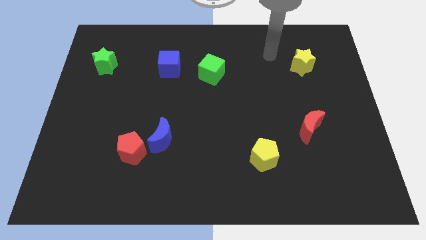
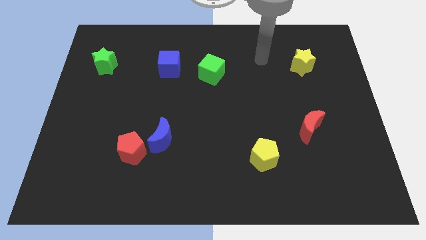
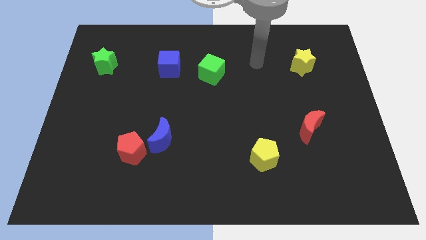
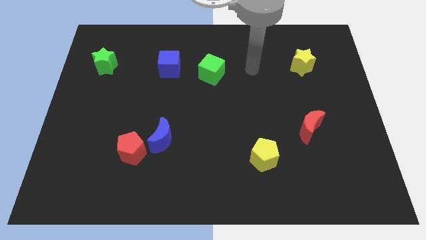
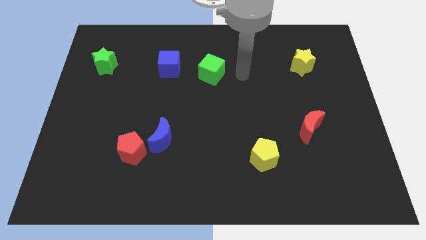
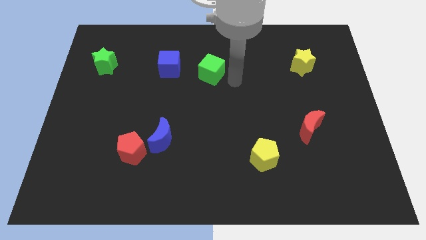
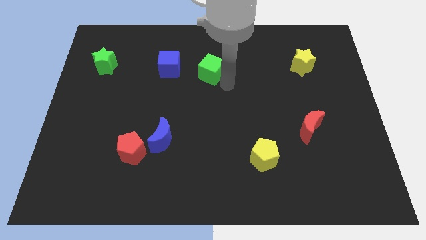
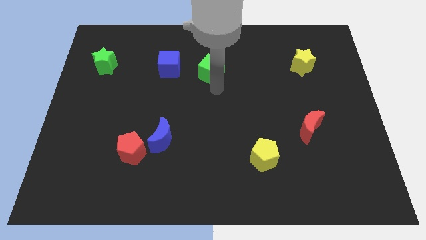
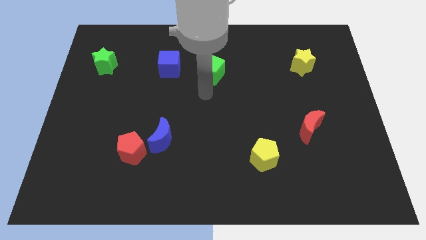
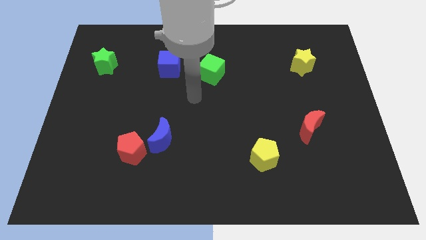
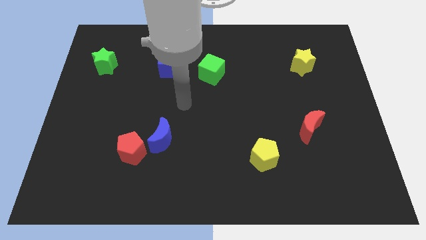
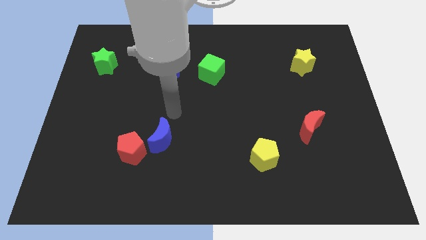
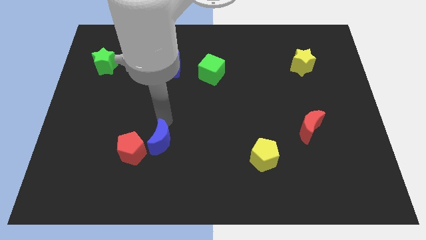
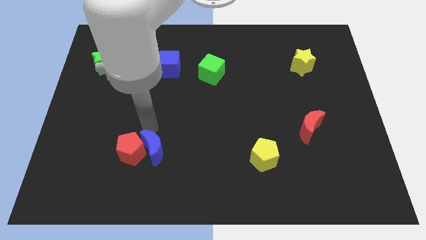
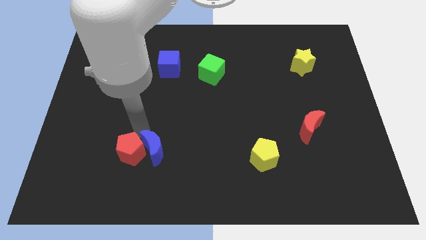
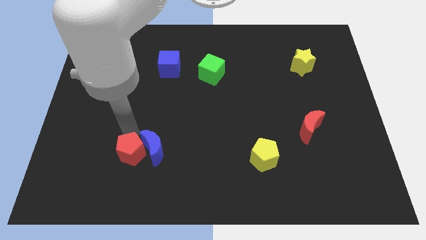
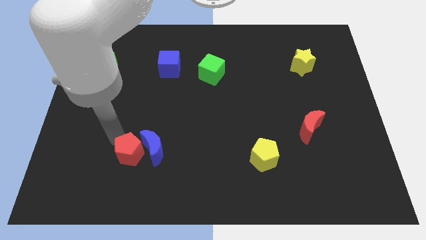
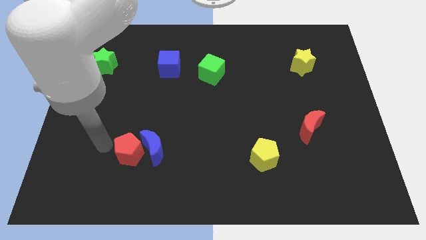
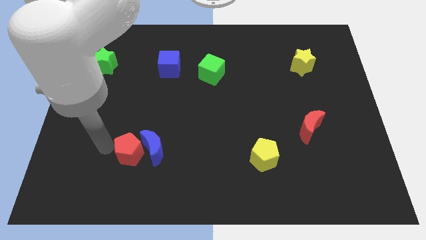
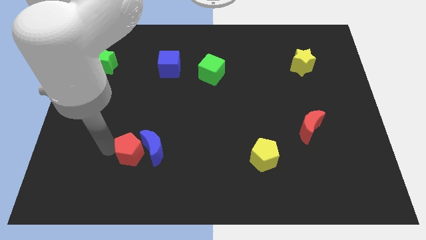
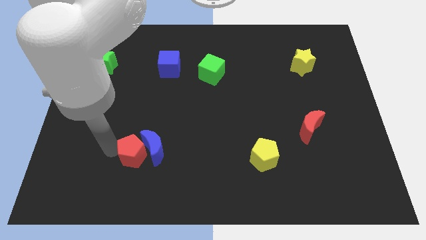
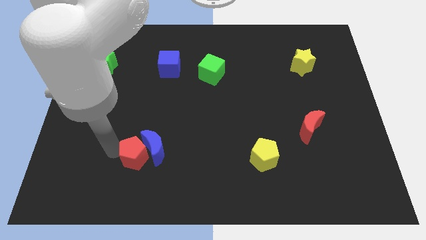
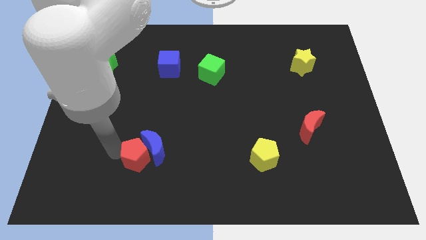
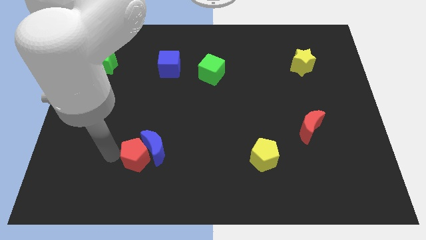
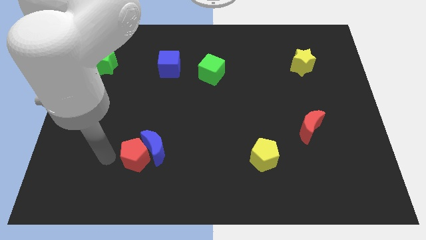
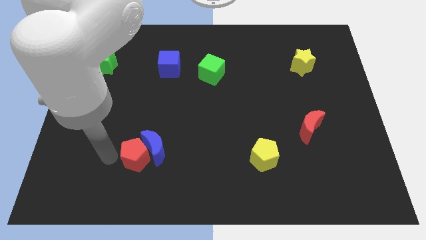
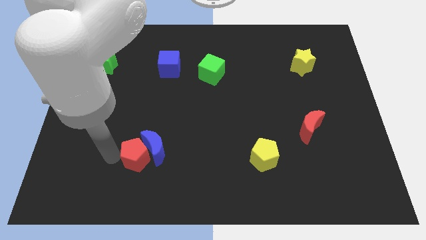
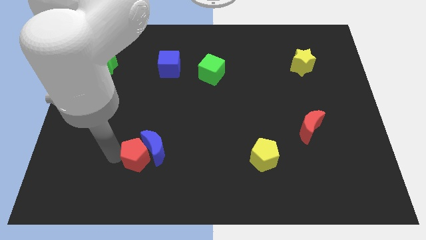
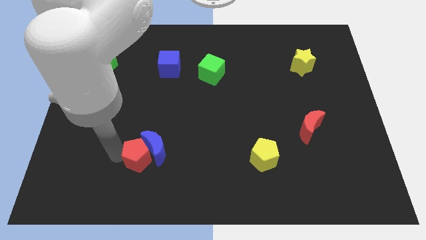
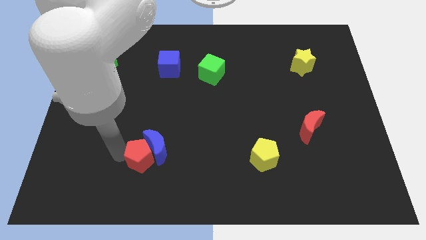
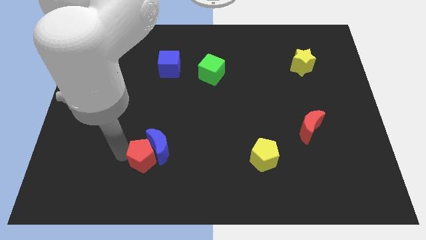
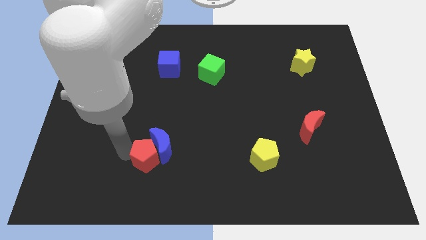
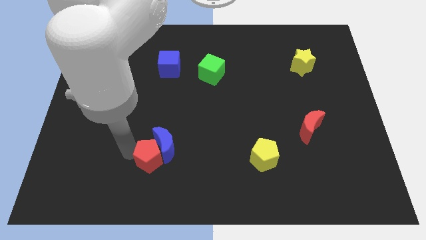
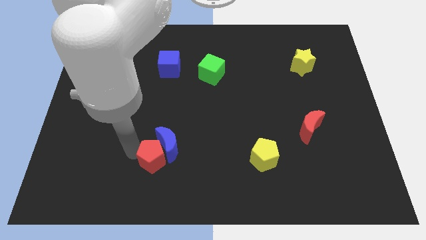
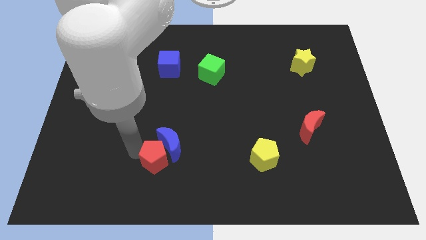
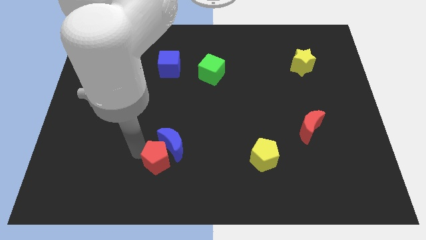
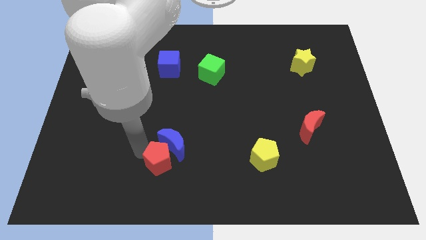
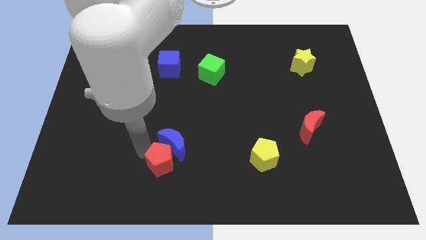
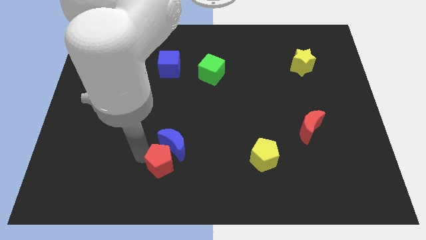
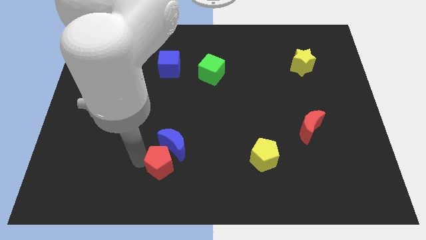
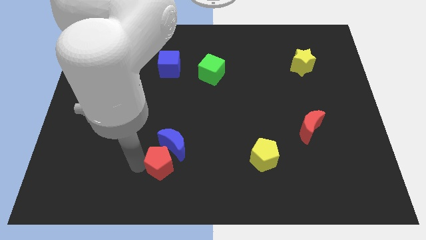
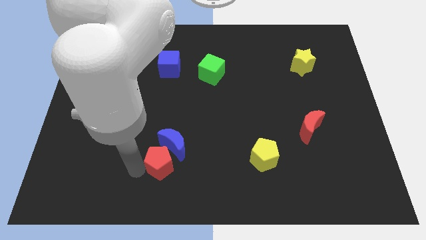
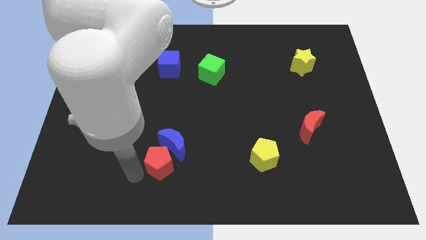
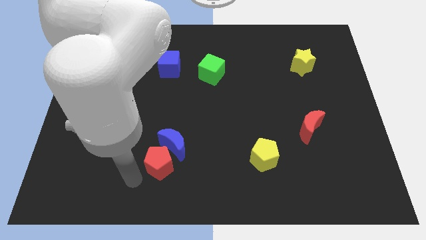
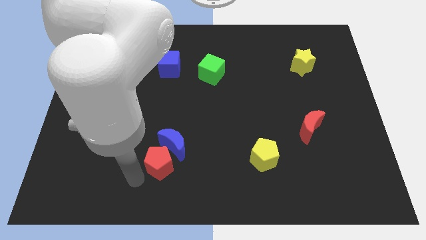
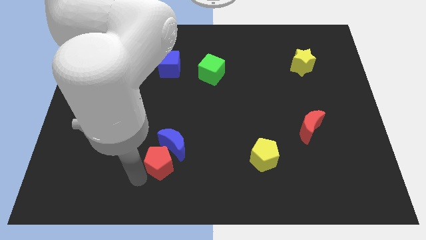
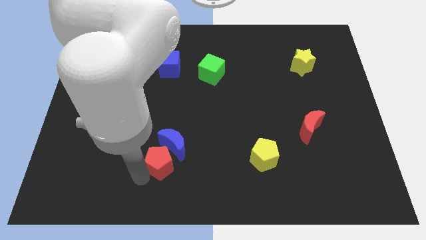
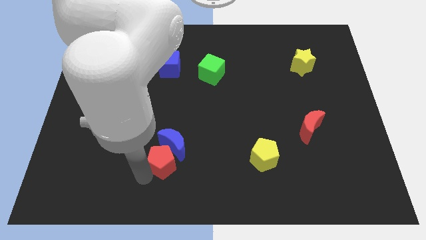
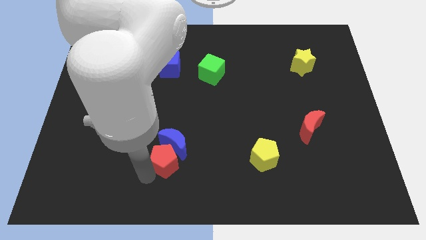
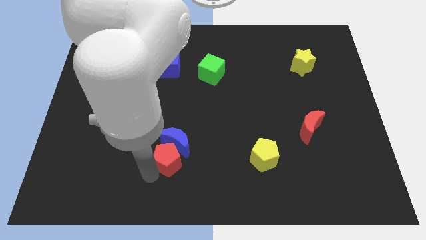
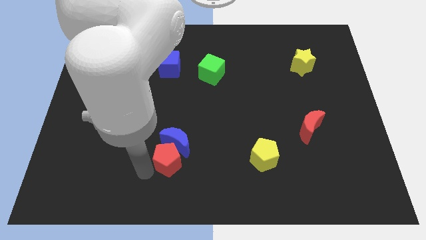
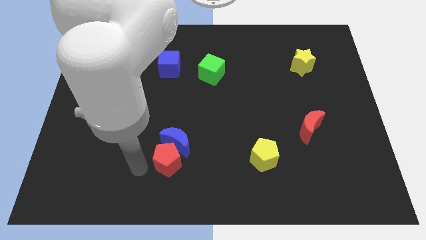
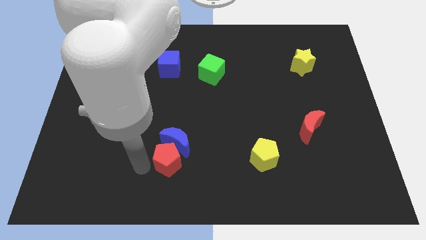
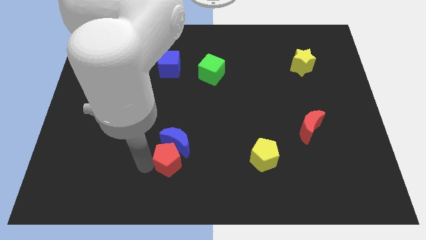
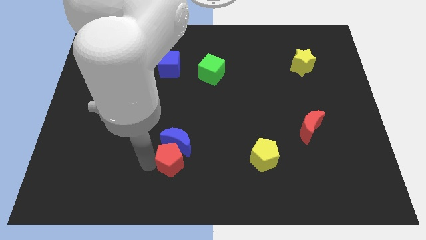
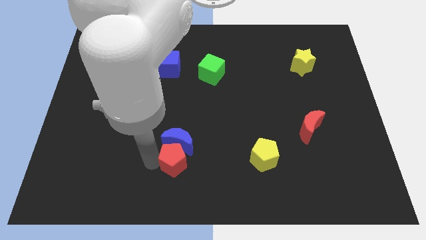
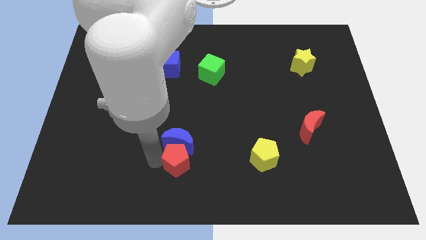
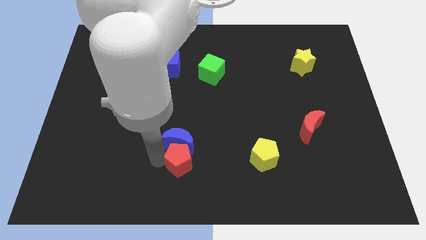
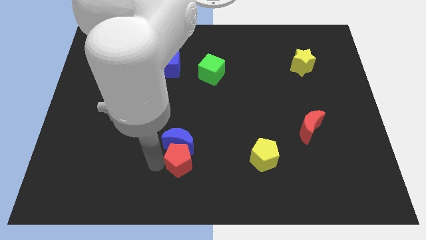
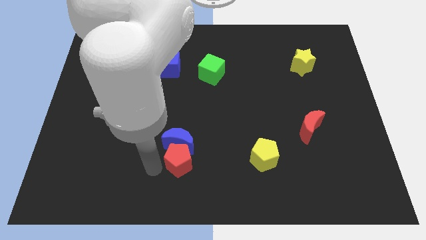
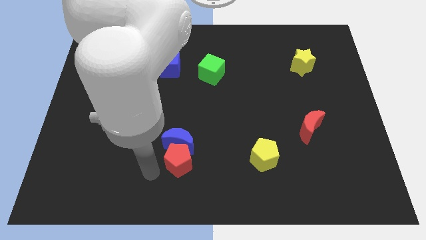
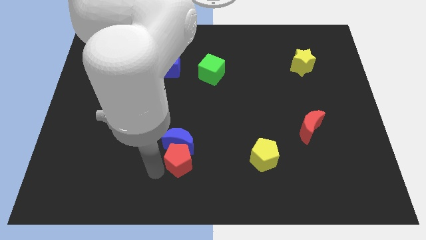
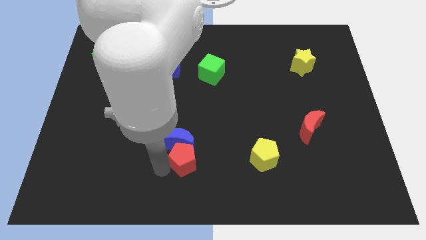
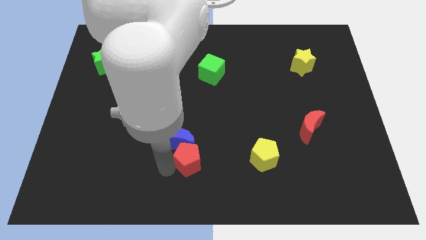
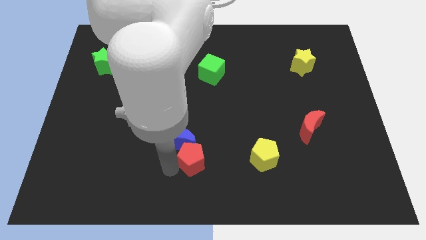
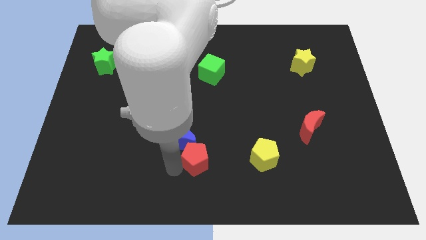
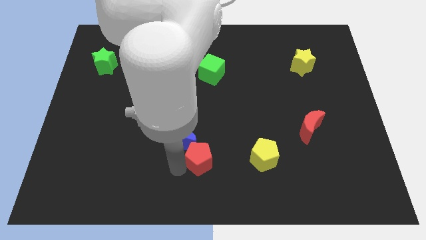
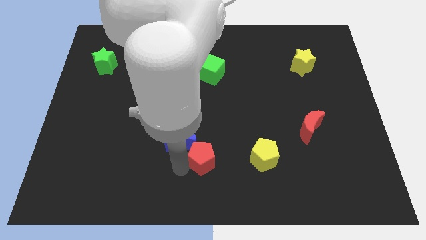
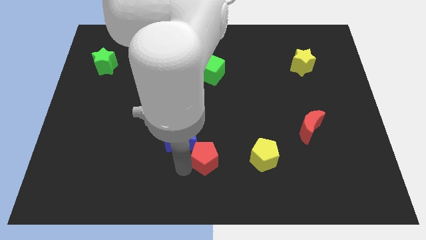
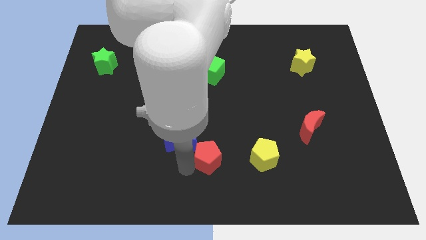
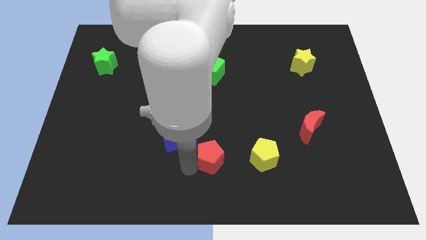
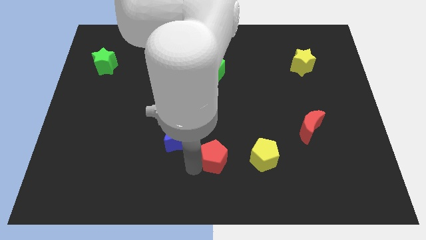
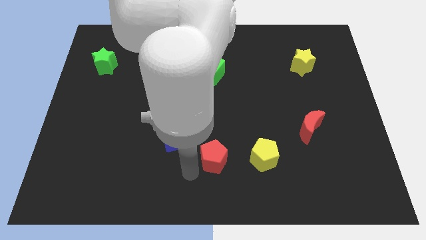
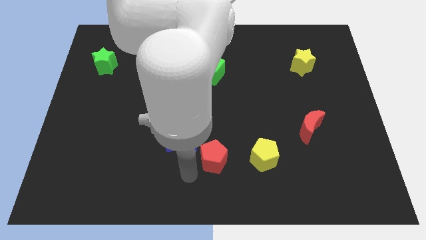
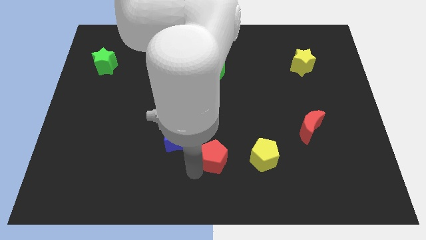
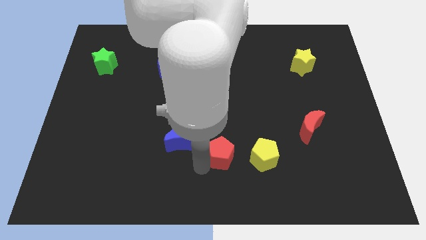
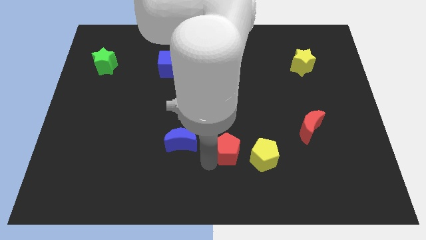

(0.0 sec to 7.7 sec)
slide the red pentagon to the right
